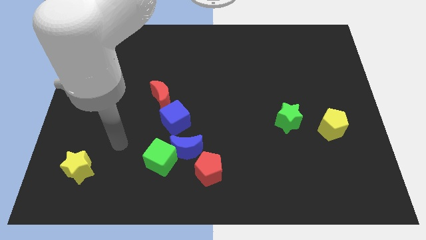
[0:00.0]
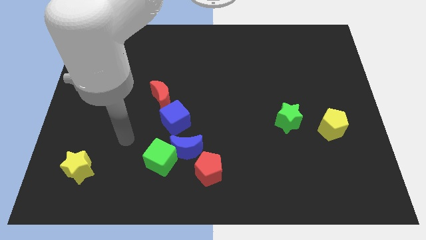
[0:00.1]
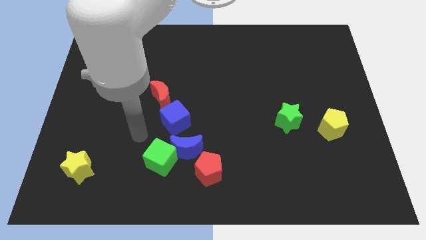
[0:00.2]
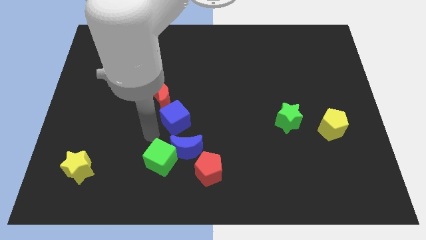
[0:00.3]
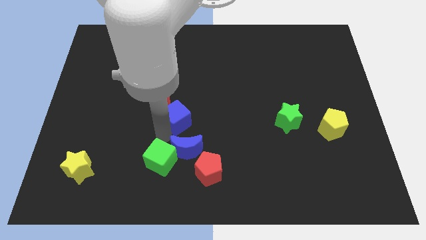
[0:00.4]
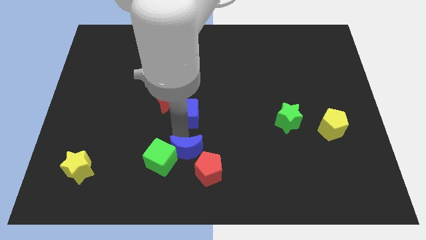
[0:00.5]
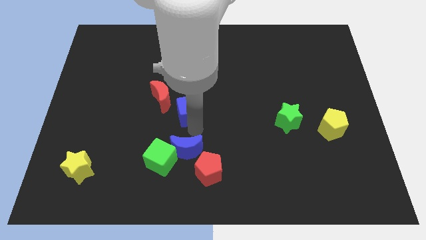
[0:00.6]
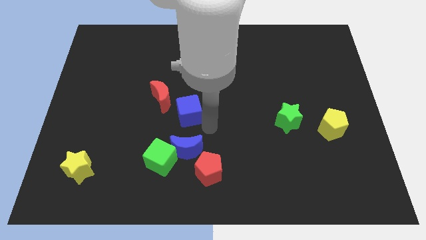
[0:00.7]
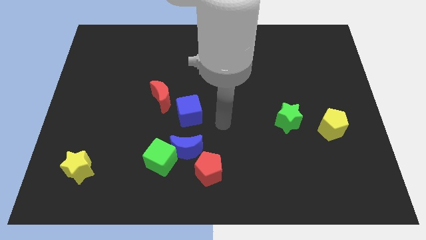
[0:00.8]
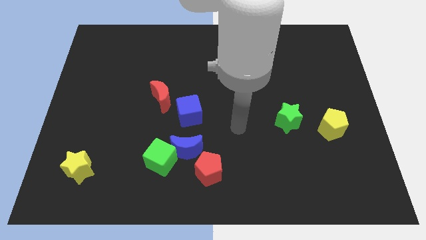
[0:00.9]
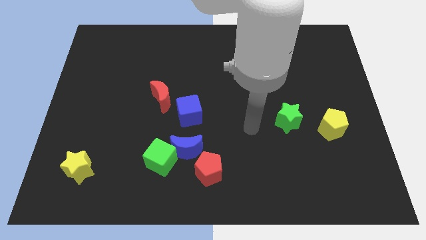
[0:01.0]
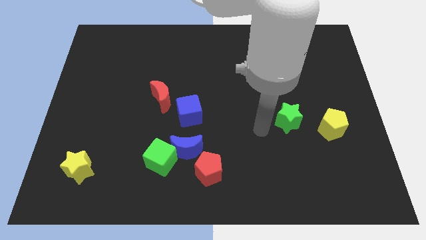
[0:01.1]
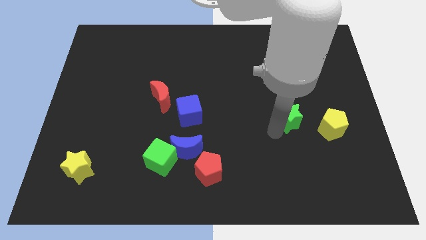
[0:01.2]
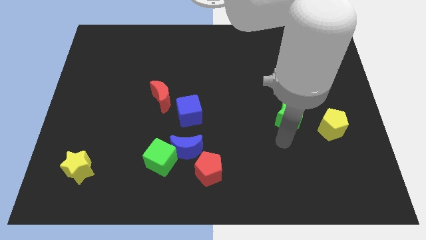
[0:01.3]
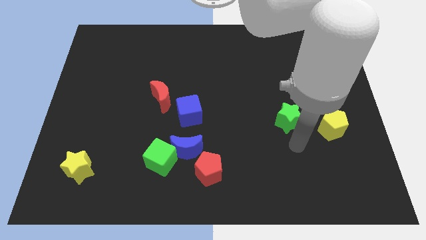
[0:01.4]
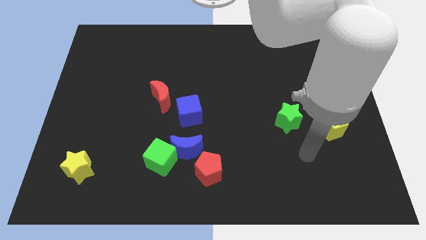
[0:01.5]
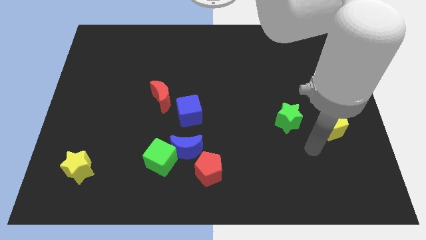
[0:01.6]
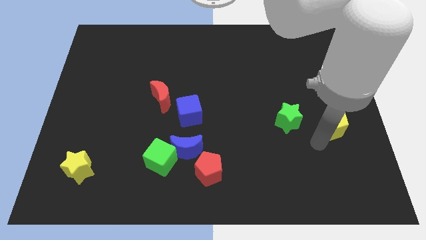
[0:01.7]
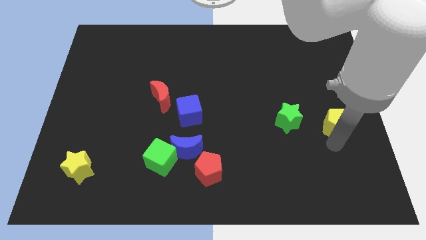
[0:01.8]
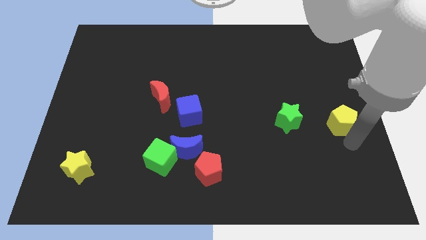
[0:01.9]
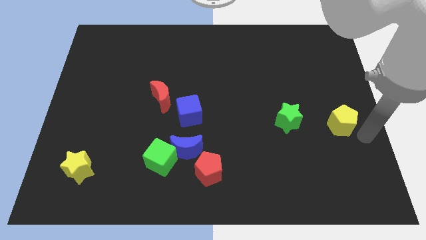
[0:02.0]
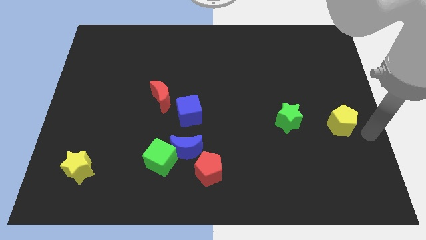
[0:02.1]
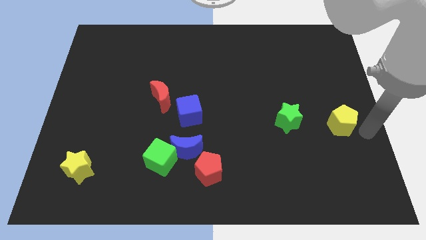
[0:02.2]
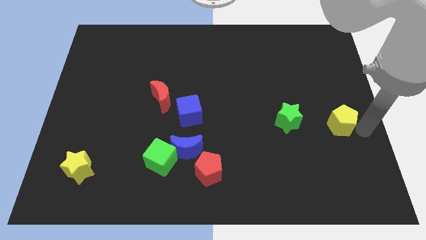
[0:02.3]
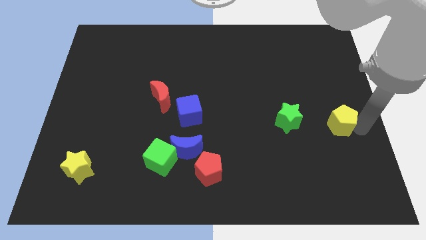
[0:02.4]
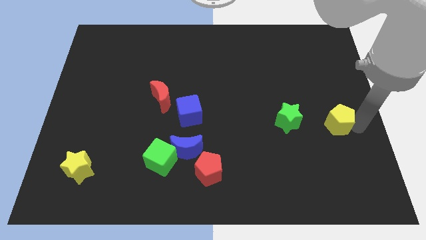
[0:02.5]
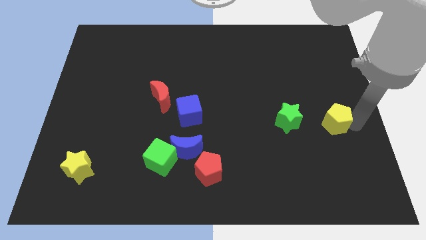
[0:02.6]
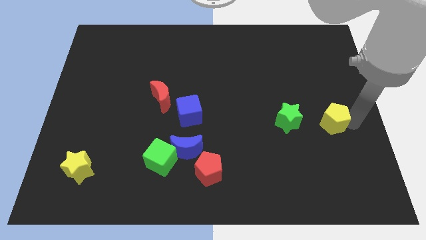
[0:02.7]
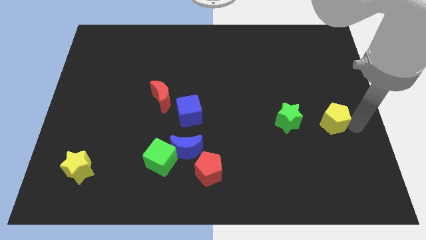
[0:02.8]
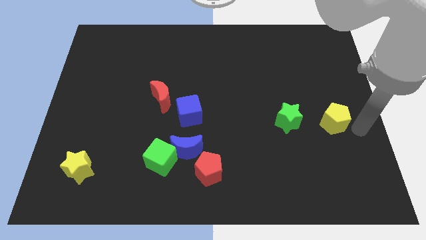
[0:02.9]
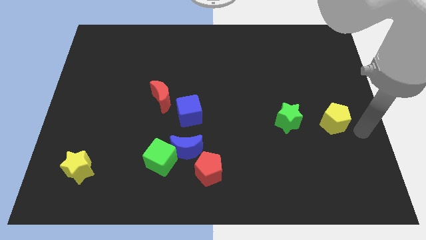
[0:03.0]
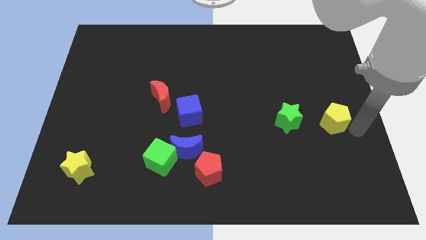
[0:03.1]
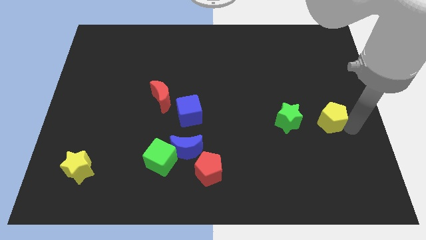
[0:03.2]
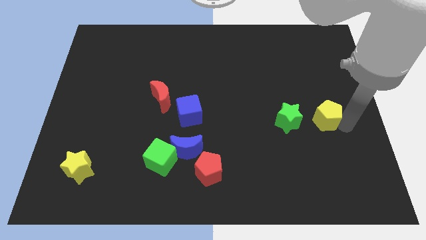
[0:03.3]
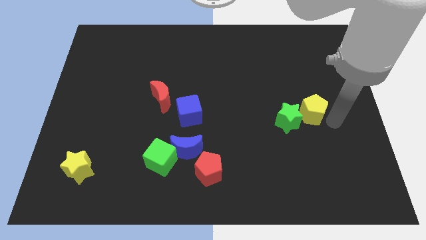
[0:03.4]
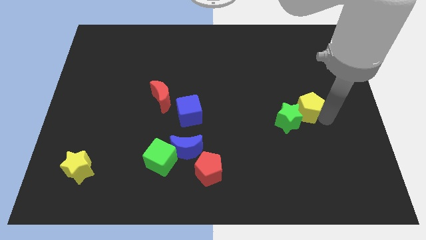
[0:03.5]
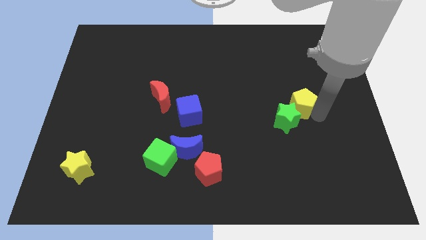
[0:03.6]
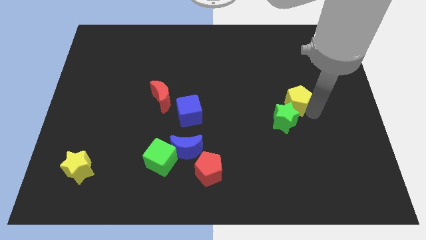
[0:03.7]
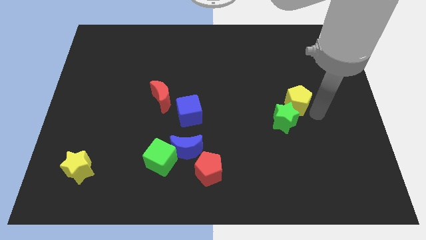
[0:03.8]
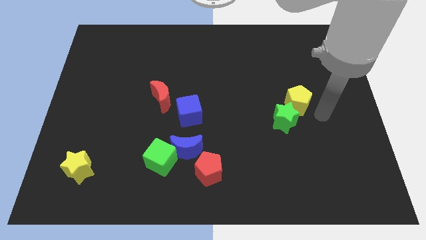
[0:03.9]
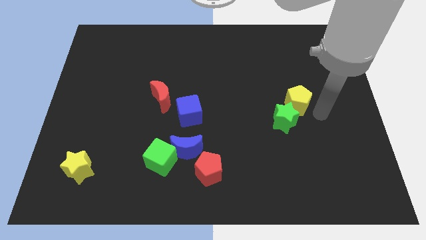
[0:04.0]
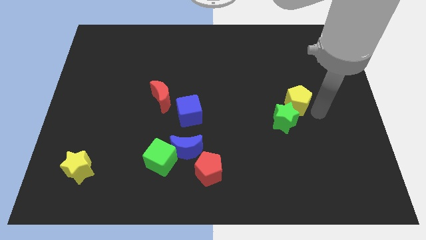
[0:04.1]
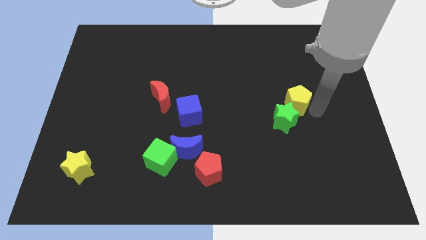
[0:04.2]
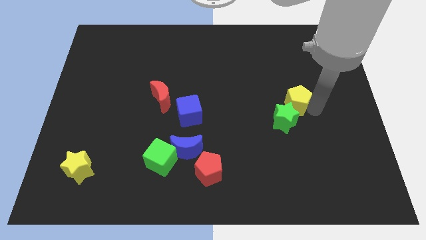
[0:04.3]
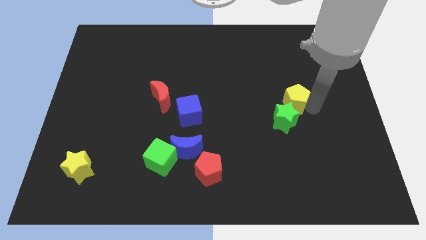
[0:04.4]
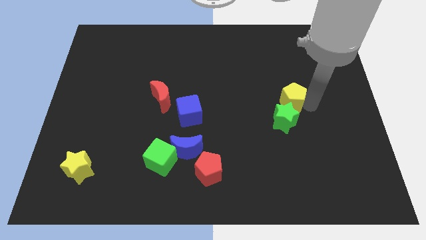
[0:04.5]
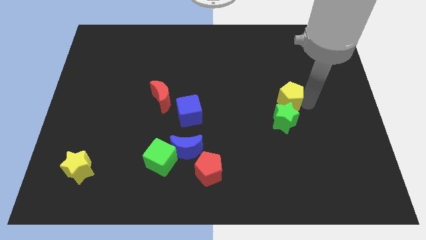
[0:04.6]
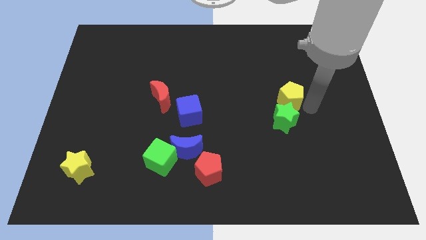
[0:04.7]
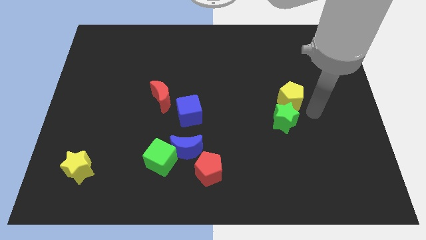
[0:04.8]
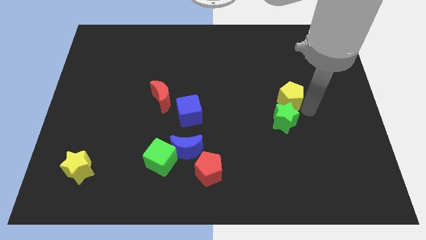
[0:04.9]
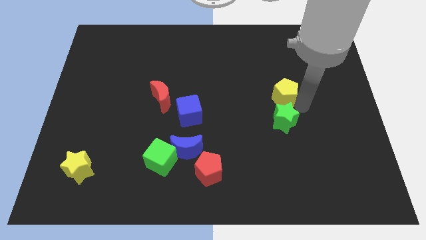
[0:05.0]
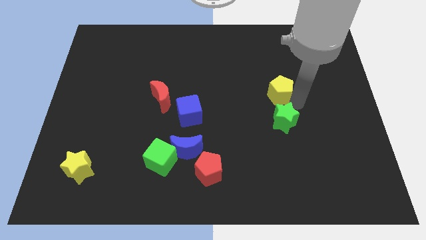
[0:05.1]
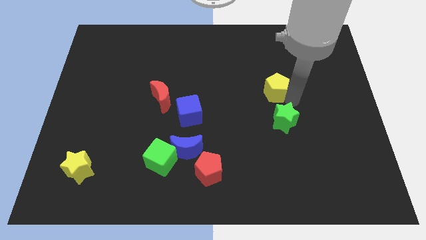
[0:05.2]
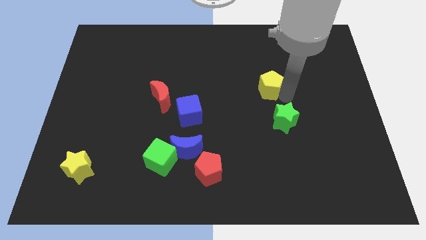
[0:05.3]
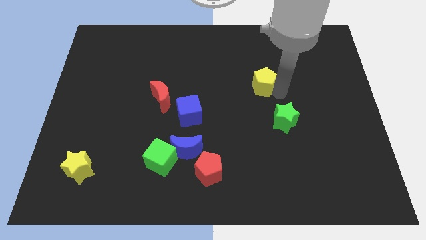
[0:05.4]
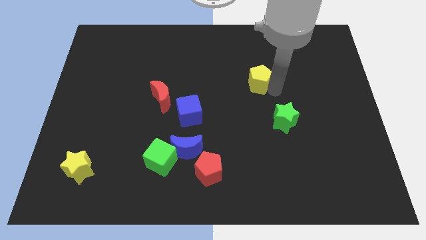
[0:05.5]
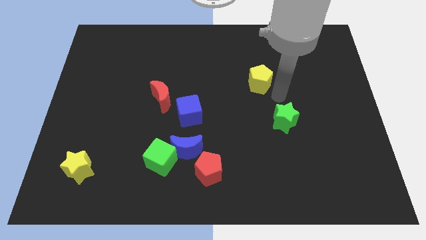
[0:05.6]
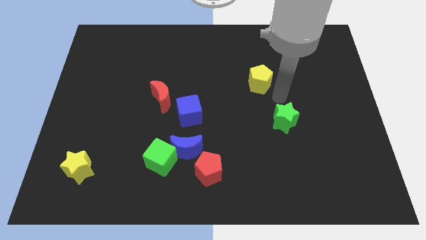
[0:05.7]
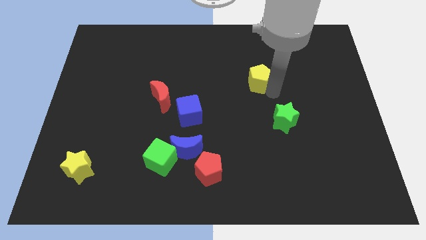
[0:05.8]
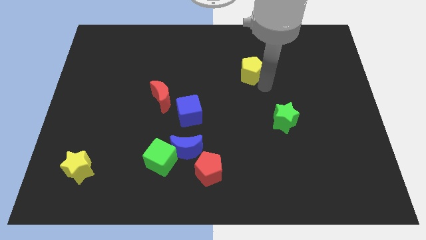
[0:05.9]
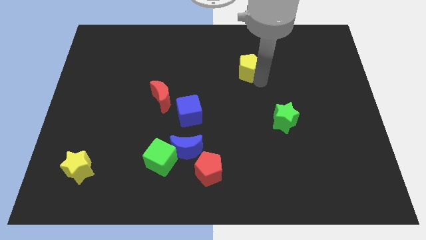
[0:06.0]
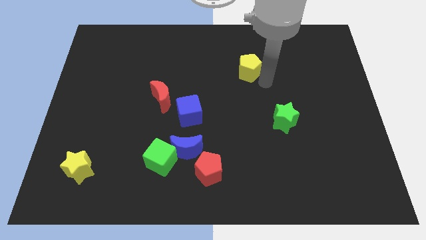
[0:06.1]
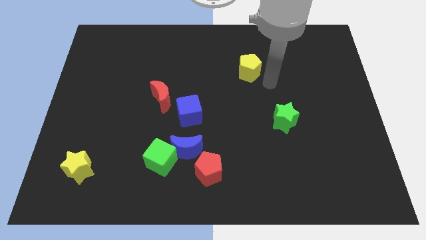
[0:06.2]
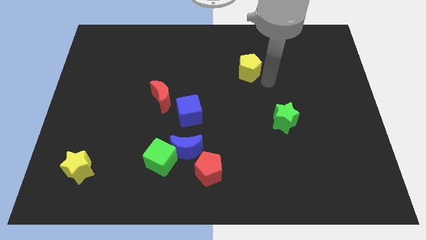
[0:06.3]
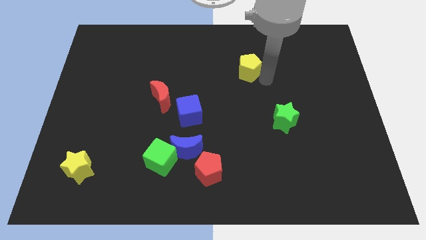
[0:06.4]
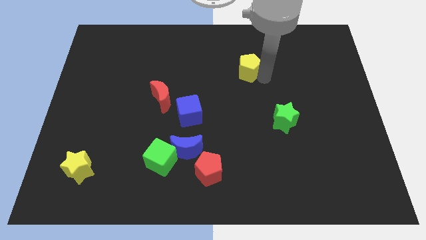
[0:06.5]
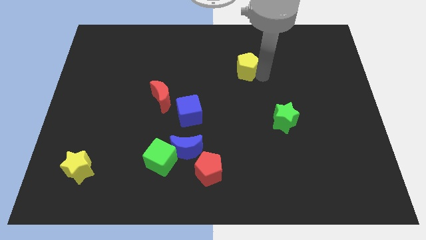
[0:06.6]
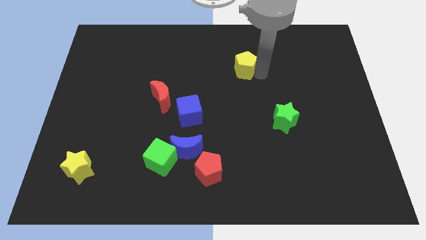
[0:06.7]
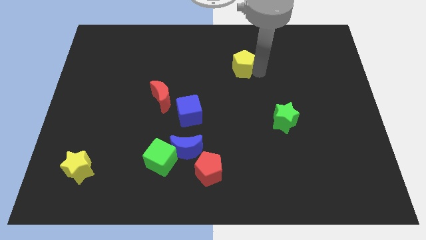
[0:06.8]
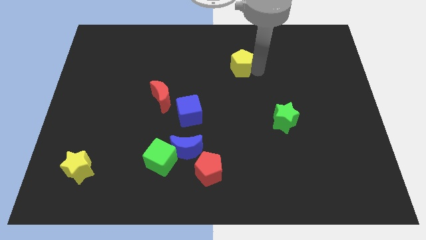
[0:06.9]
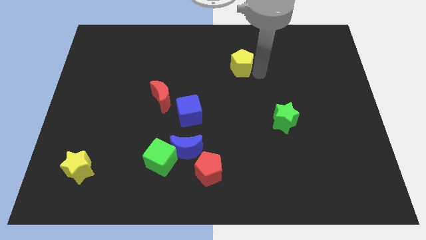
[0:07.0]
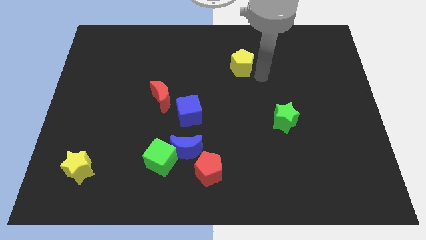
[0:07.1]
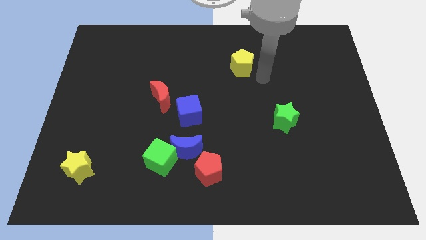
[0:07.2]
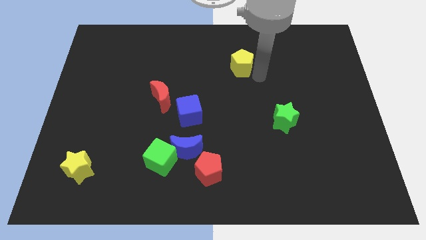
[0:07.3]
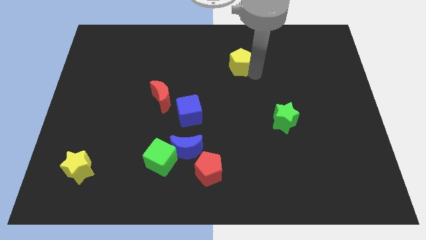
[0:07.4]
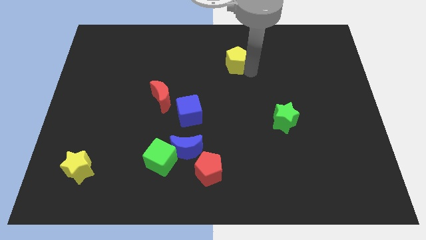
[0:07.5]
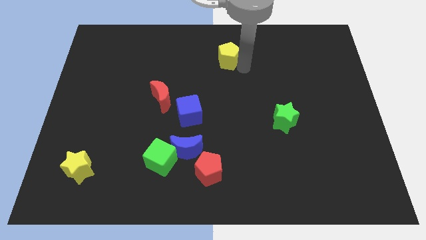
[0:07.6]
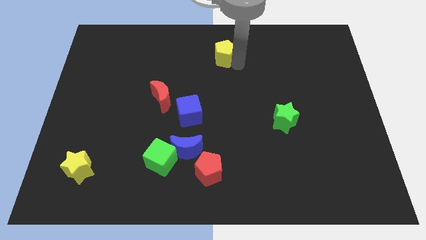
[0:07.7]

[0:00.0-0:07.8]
move the yellow pentagon to the top
